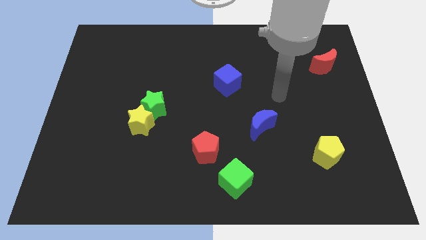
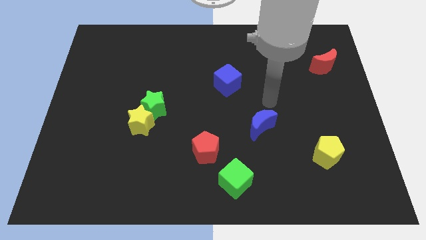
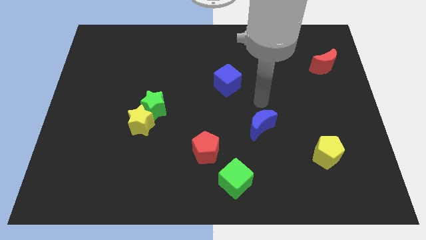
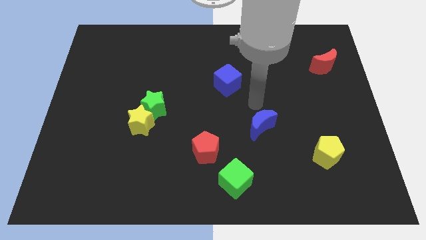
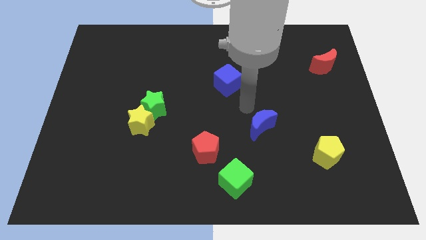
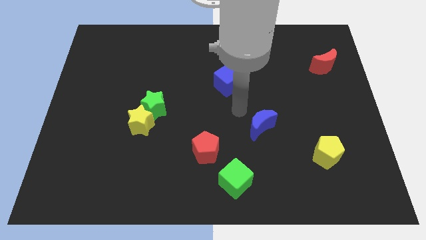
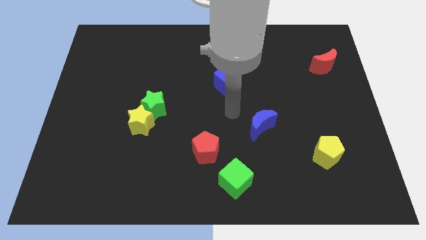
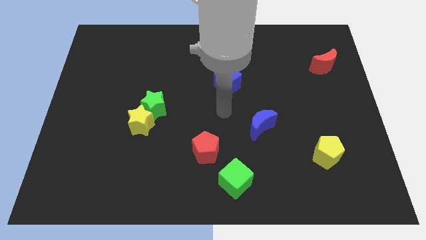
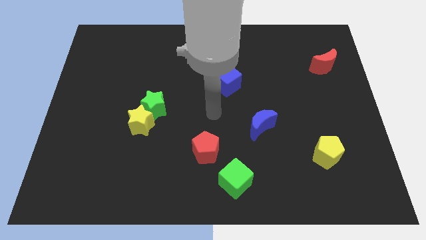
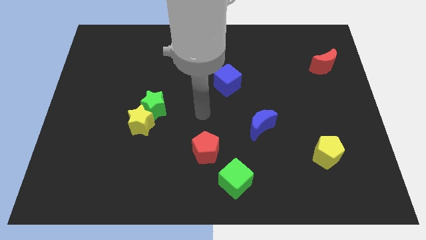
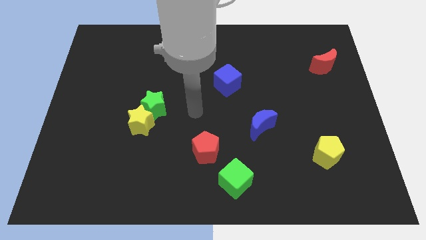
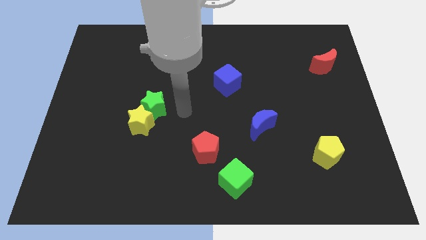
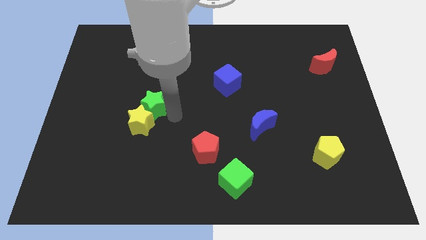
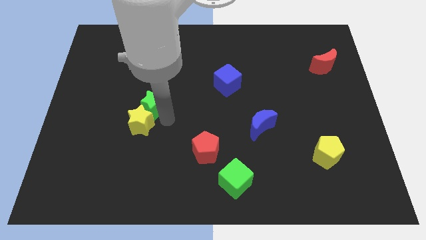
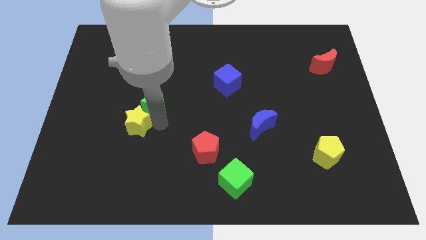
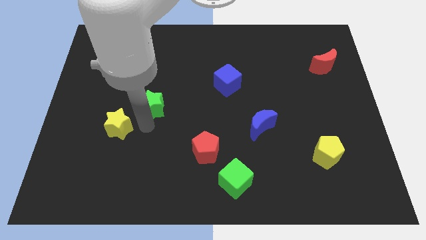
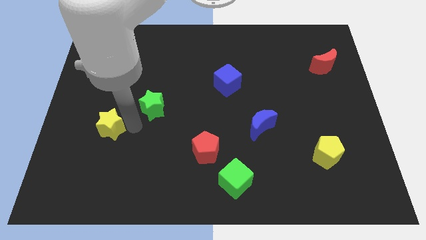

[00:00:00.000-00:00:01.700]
pull the green star apart from the yellow star

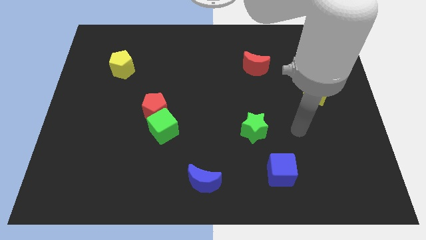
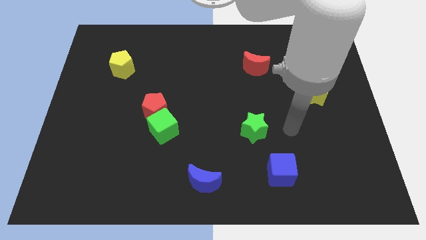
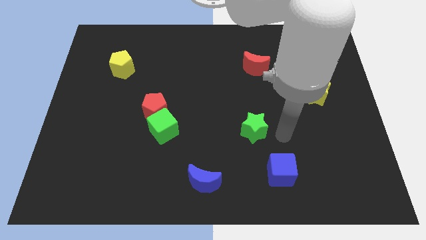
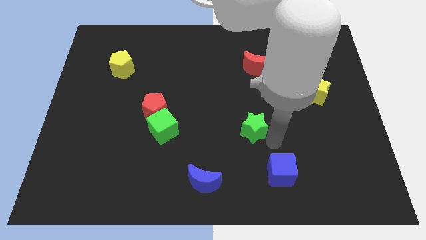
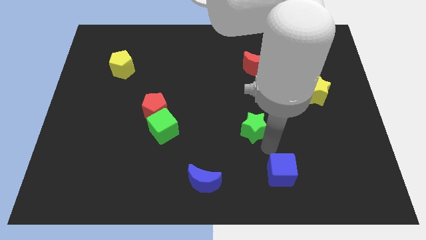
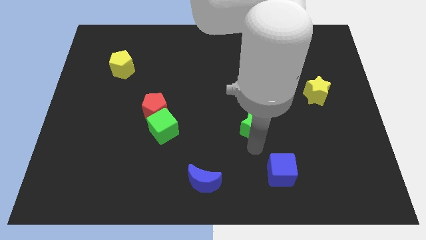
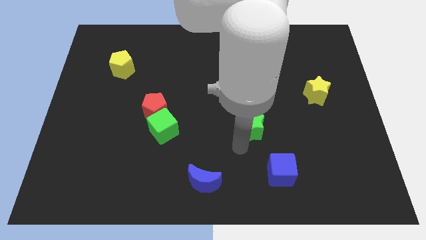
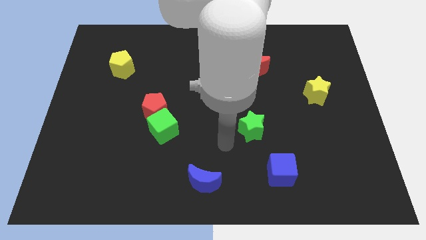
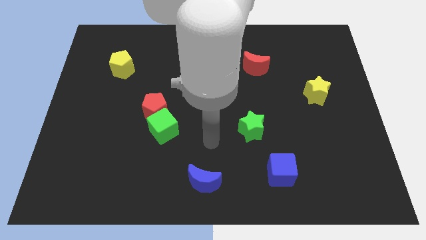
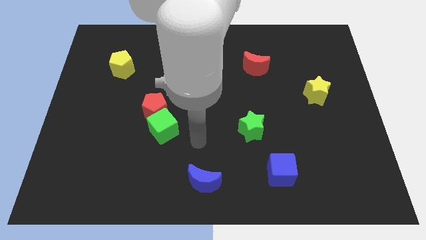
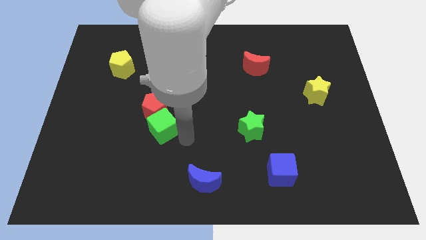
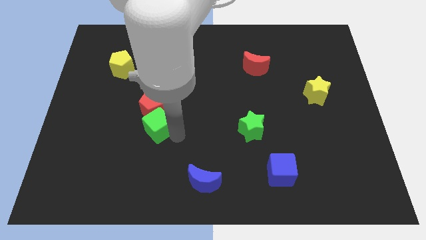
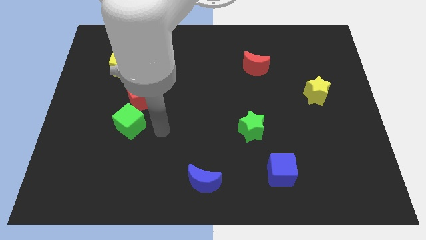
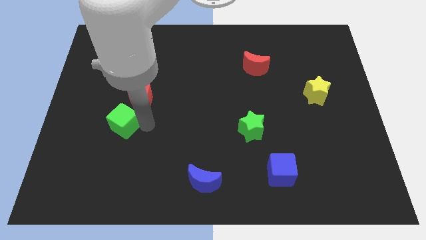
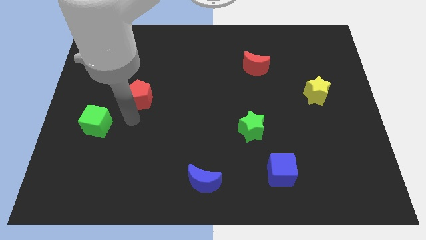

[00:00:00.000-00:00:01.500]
separate the red pentagon from the green cube

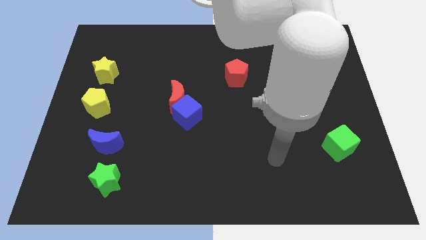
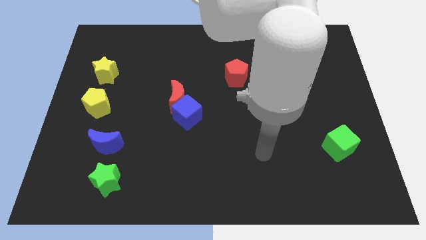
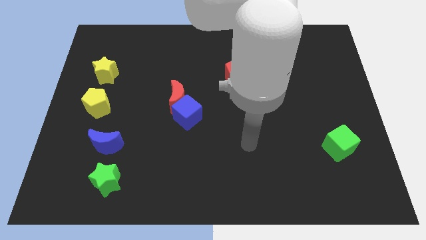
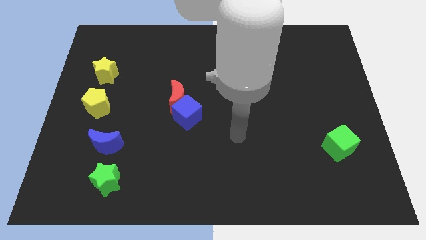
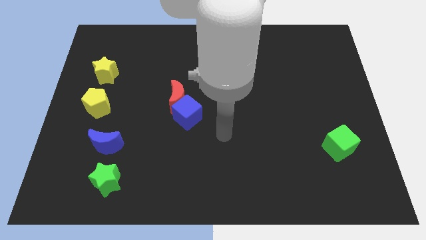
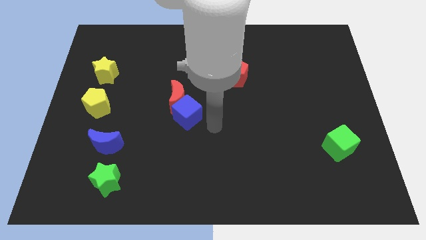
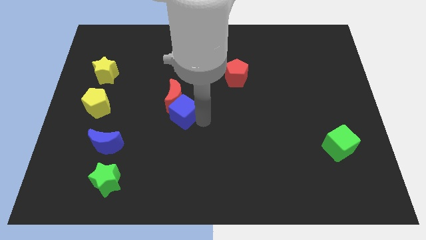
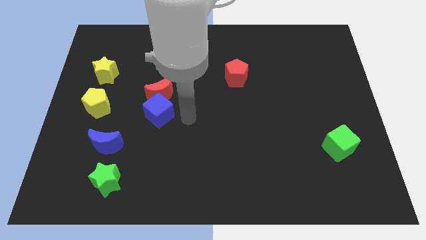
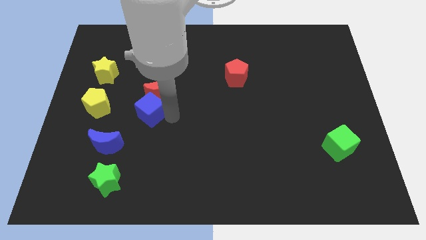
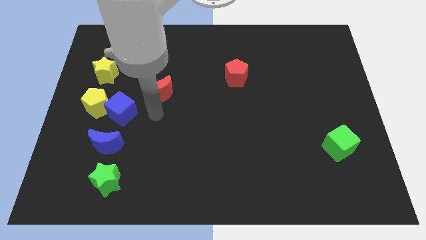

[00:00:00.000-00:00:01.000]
pull the red moon apart from the blue cube

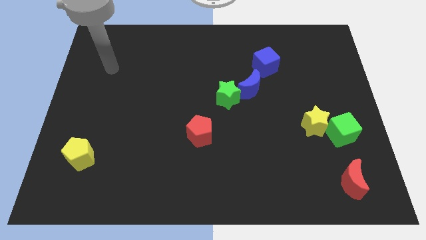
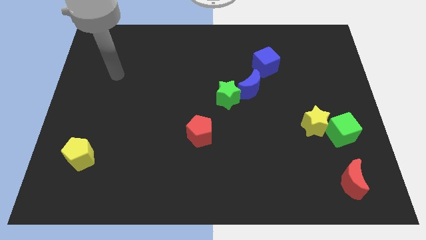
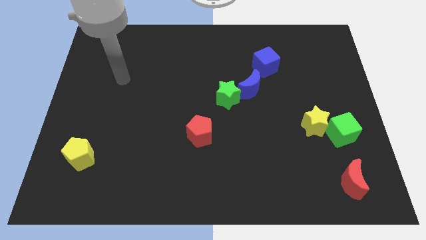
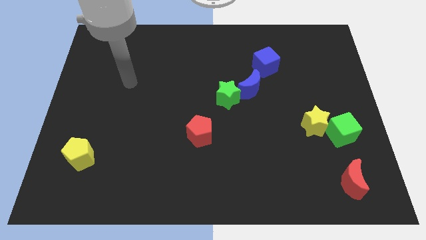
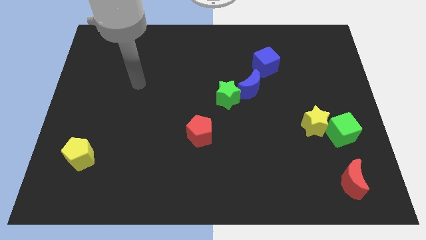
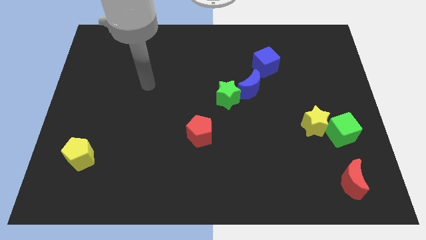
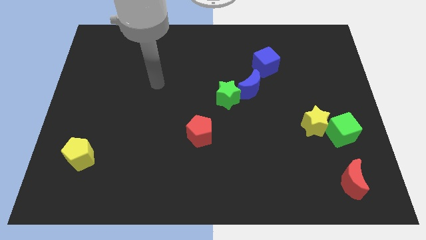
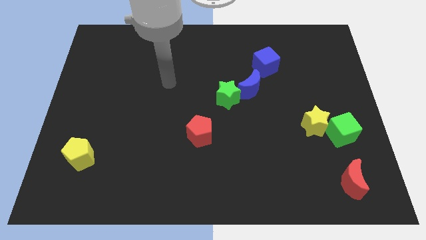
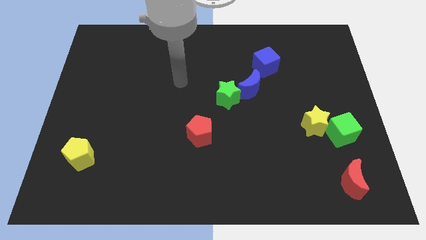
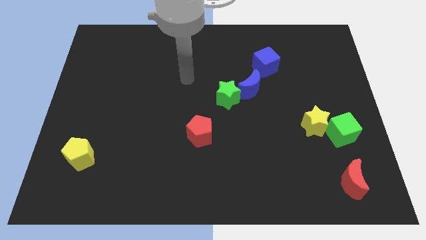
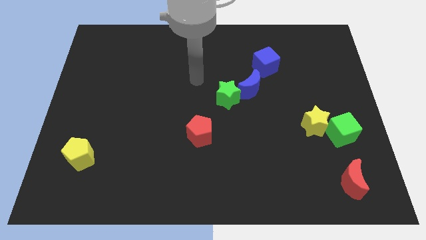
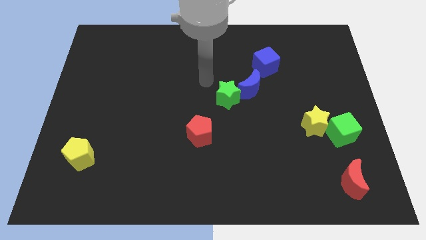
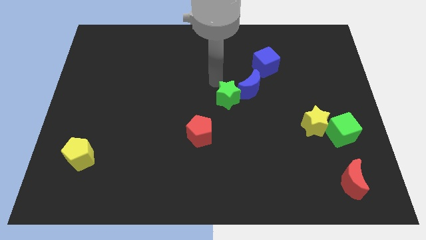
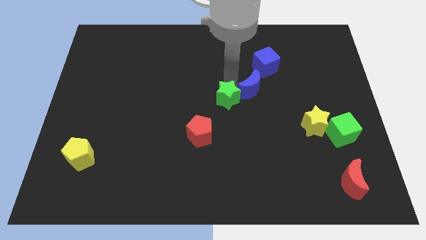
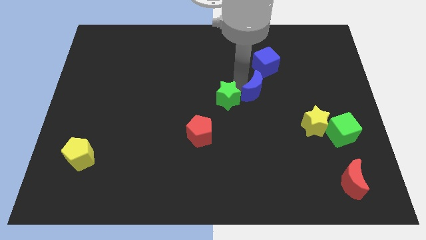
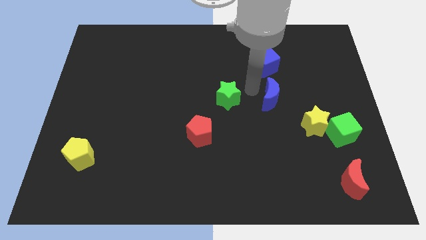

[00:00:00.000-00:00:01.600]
pull the green star apart from the blue moon

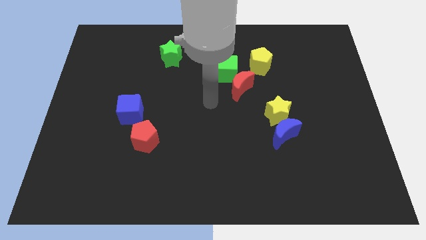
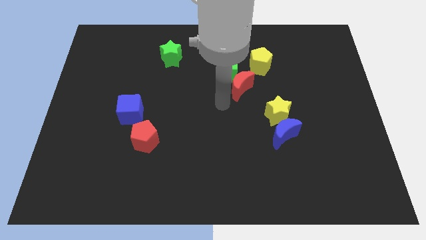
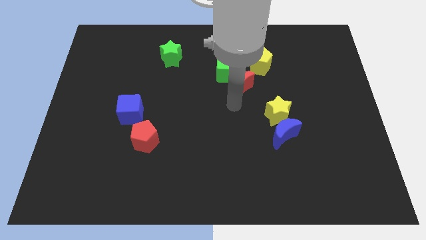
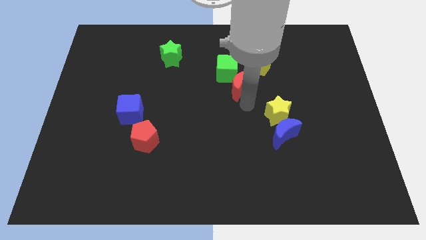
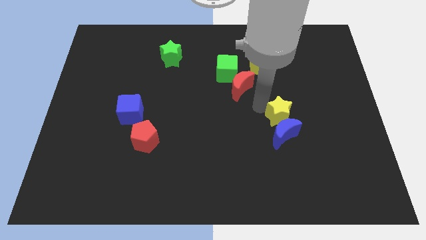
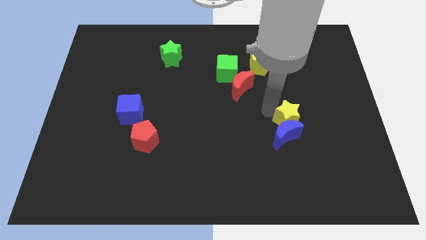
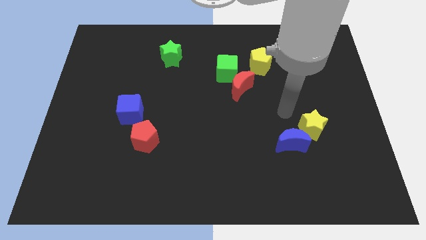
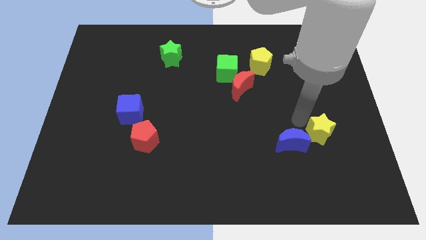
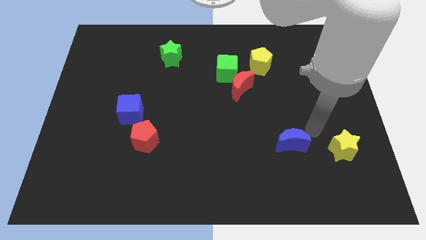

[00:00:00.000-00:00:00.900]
pull the blue moon apart from the yellow star

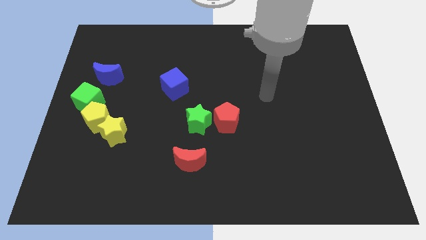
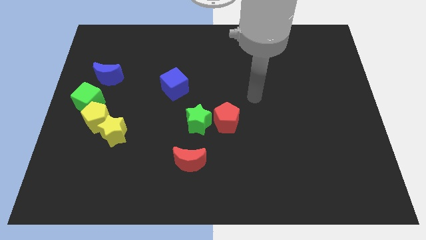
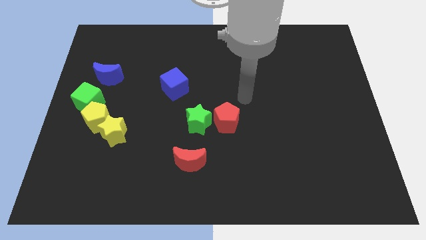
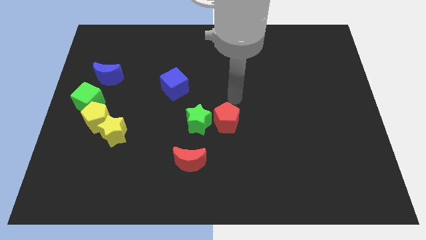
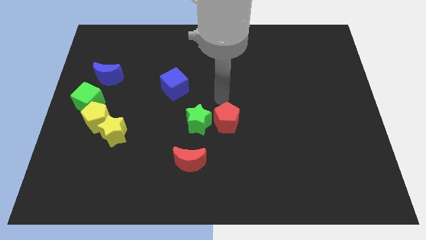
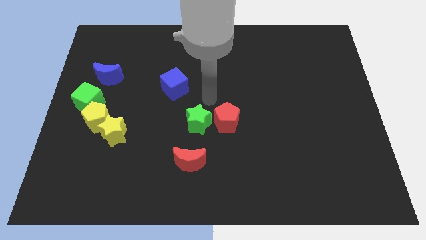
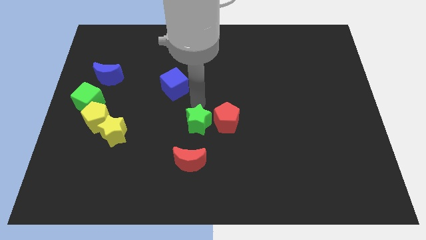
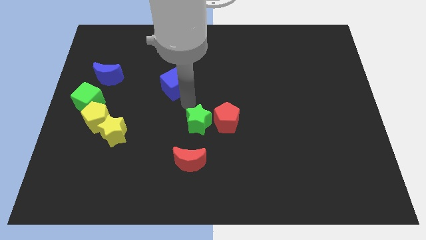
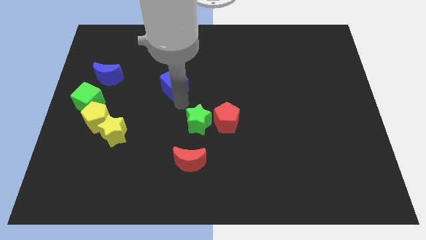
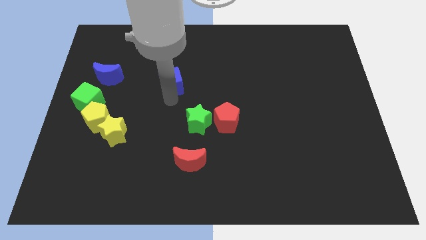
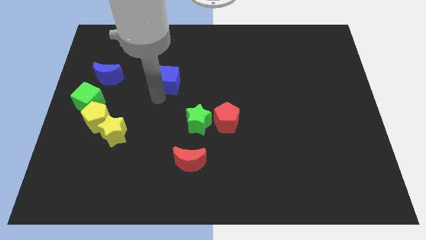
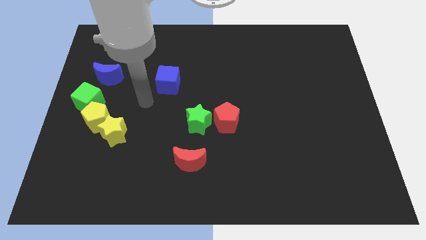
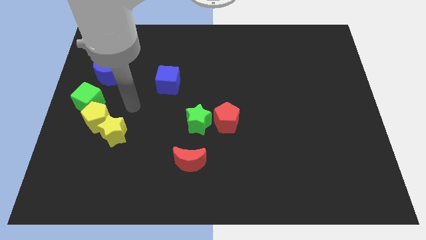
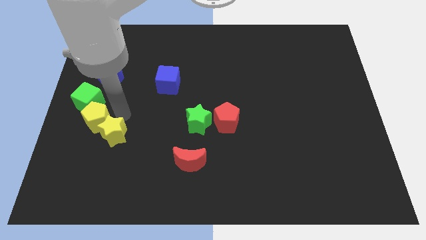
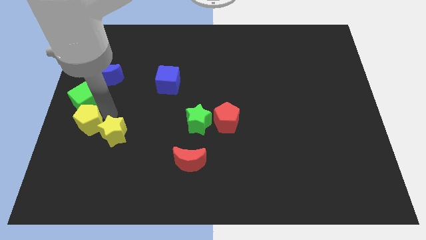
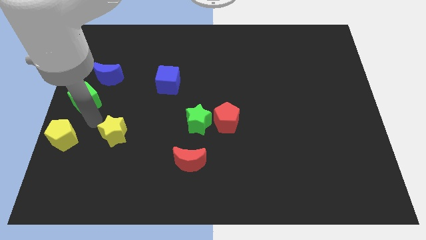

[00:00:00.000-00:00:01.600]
pull the yellow star apart from the yellow pentagon

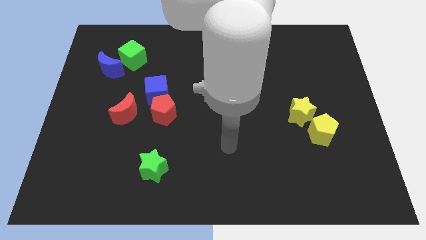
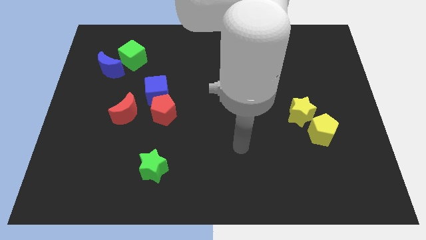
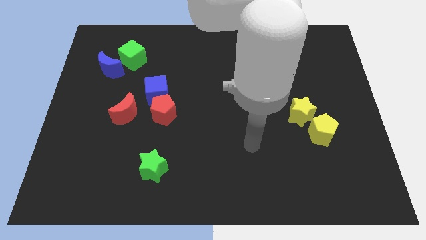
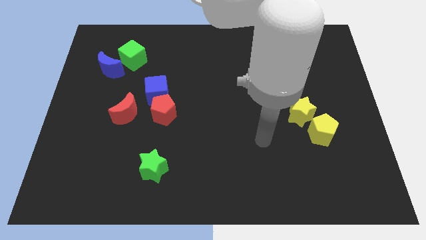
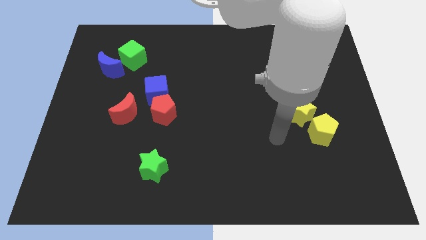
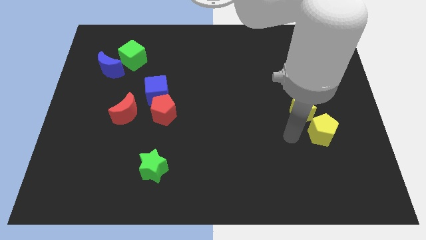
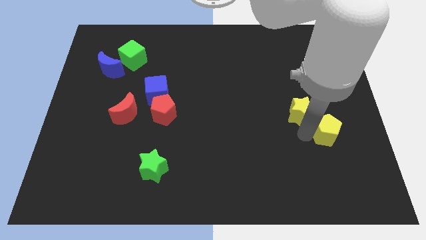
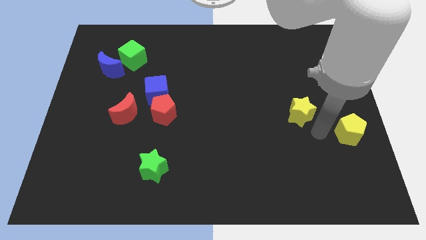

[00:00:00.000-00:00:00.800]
move the yellow star away from the yellow pentagon

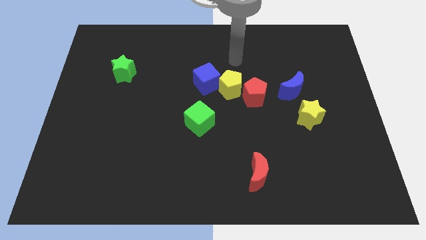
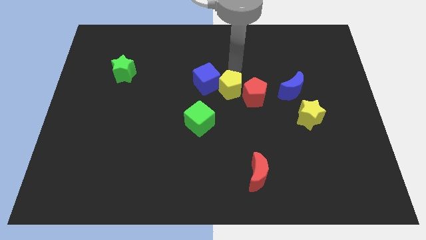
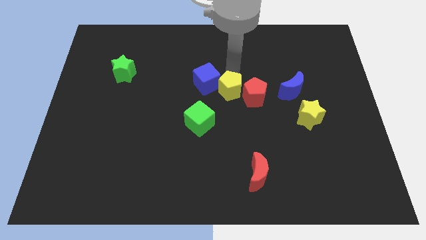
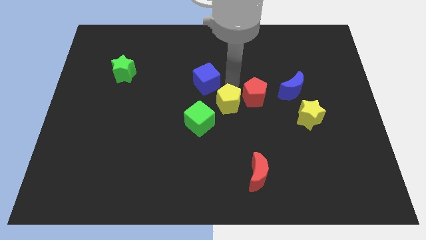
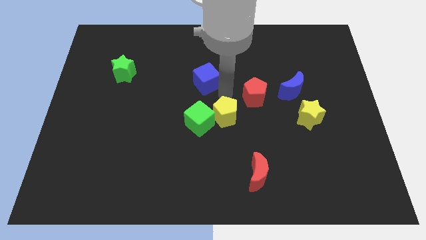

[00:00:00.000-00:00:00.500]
separate the blue cube from the yellow pentagon
